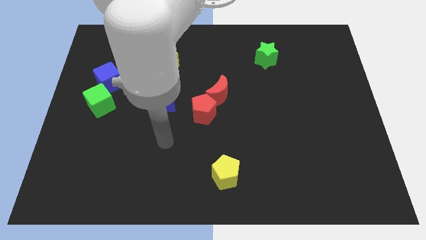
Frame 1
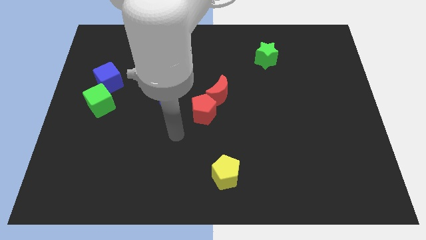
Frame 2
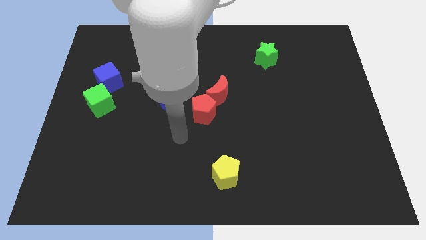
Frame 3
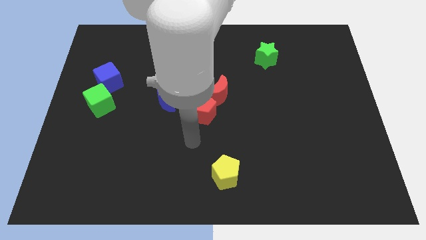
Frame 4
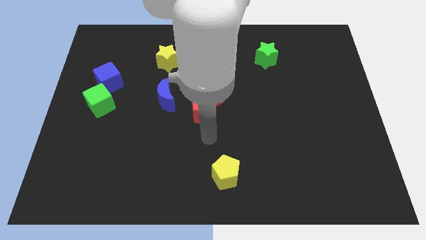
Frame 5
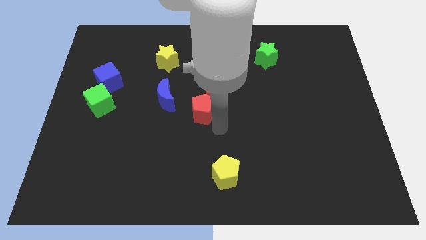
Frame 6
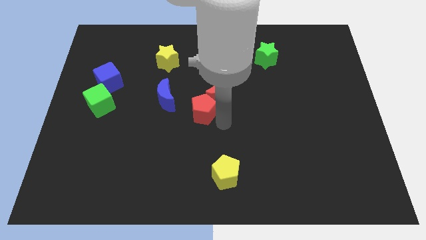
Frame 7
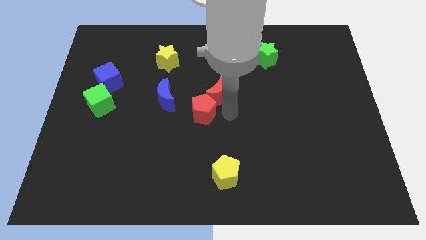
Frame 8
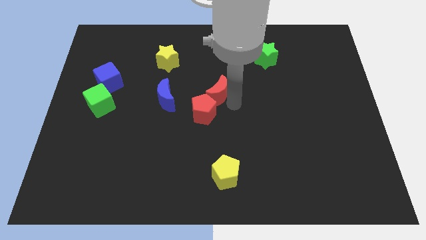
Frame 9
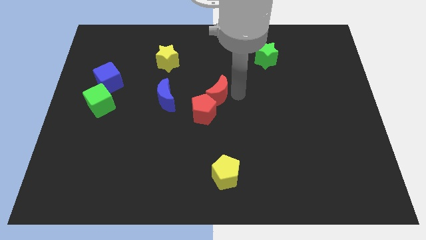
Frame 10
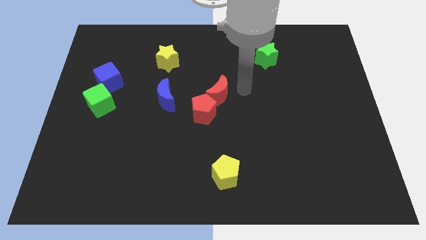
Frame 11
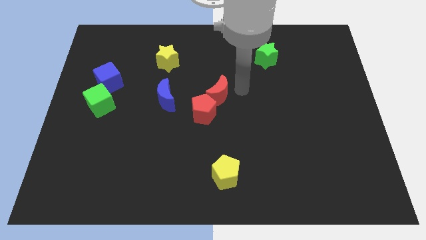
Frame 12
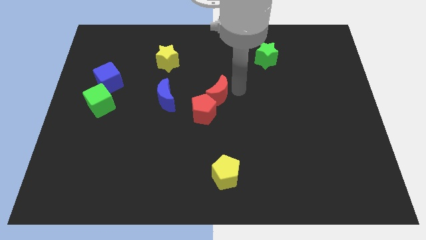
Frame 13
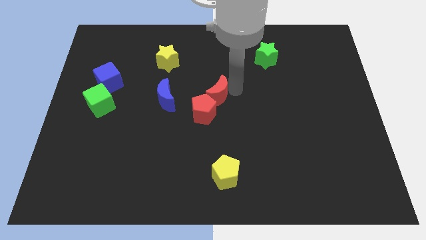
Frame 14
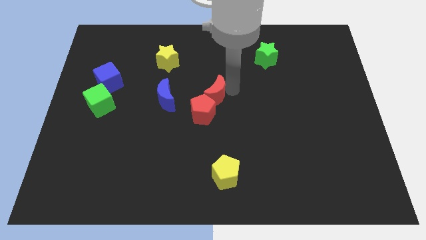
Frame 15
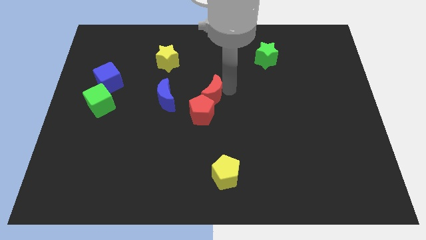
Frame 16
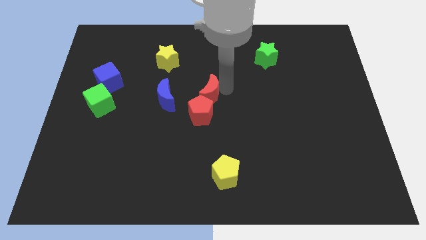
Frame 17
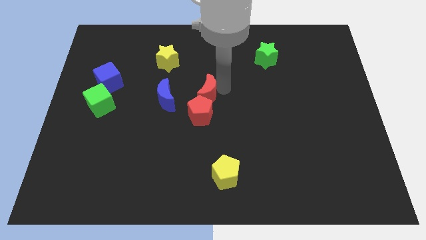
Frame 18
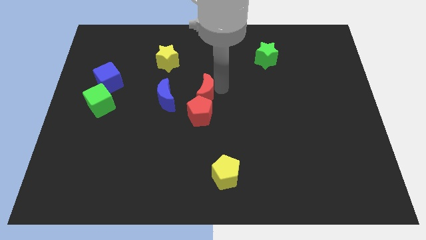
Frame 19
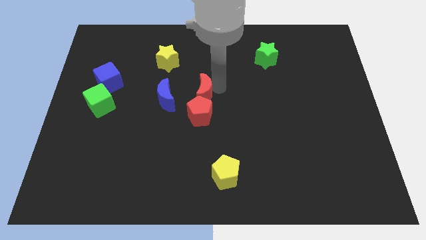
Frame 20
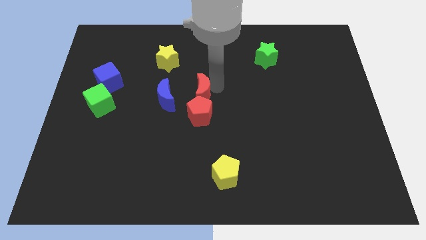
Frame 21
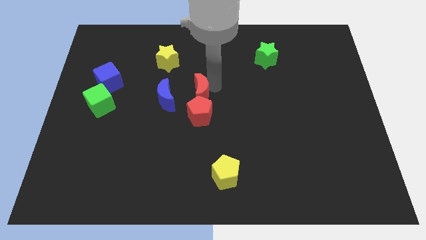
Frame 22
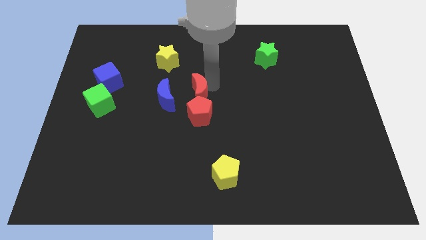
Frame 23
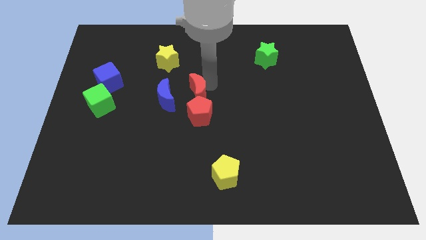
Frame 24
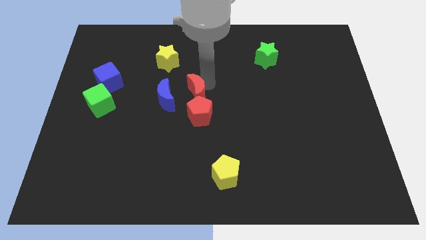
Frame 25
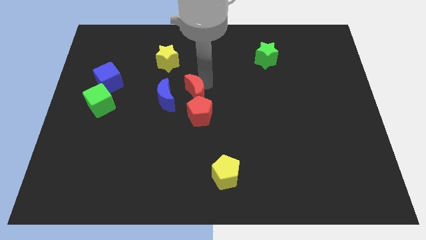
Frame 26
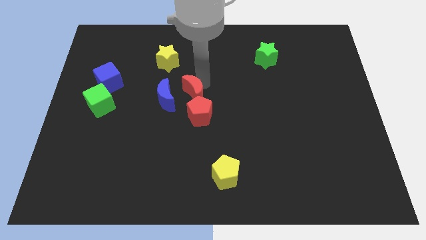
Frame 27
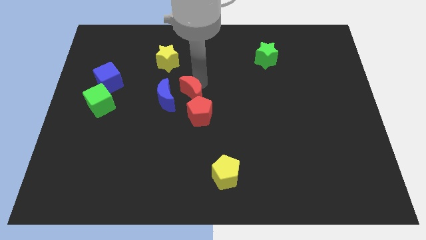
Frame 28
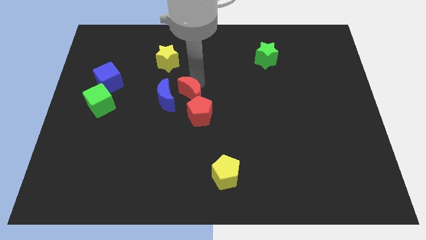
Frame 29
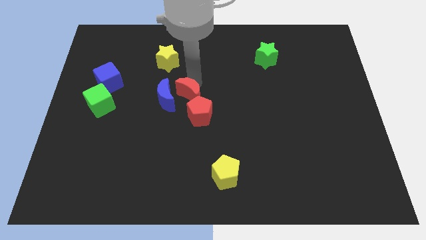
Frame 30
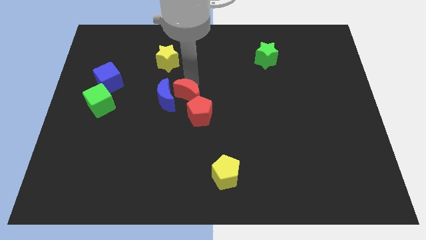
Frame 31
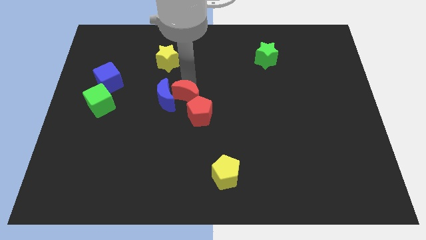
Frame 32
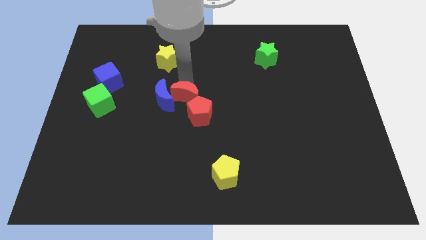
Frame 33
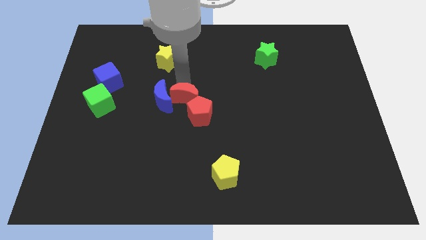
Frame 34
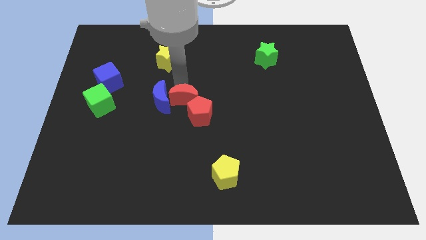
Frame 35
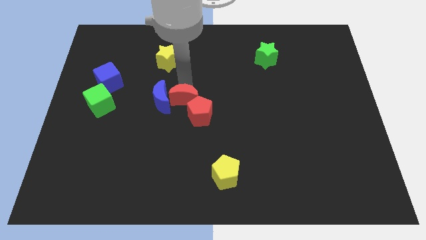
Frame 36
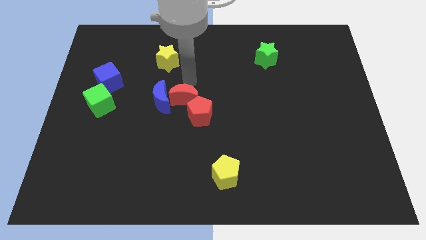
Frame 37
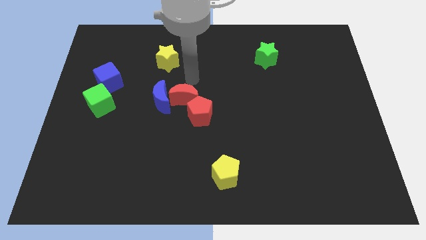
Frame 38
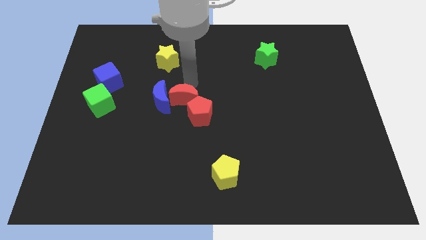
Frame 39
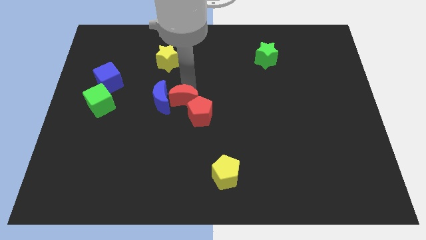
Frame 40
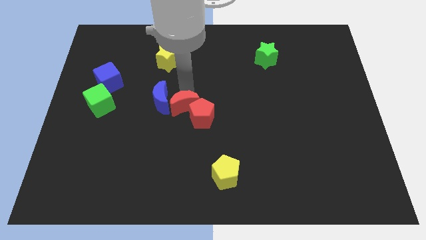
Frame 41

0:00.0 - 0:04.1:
move the red moon downwards and to the left diagonally a little bit

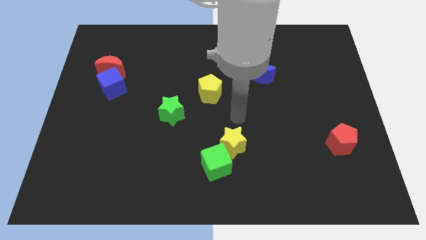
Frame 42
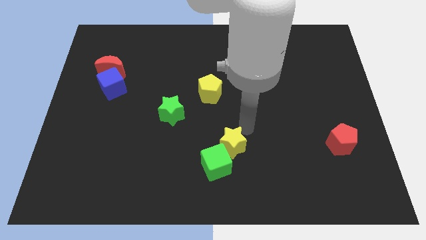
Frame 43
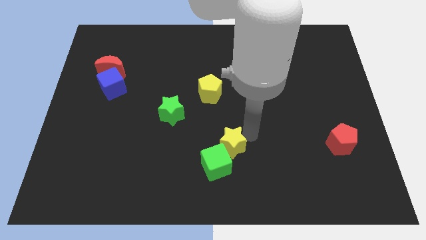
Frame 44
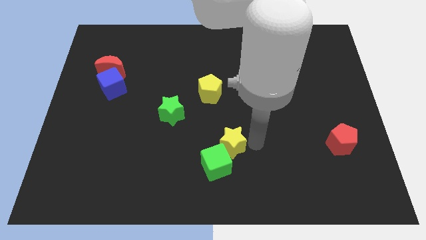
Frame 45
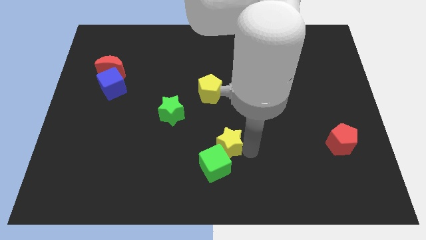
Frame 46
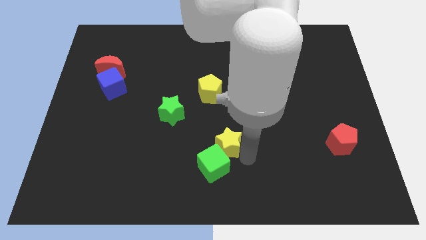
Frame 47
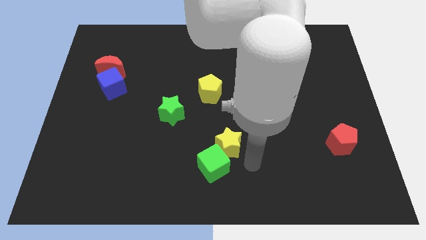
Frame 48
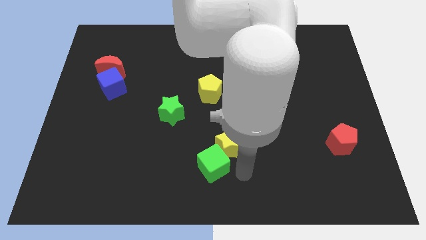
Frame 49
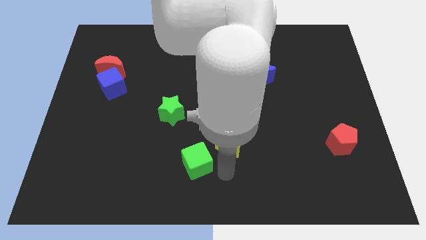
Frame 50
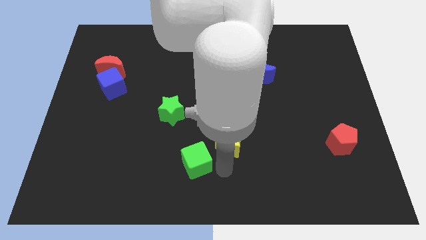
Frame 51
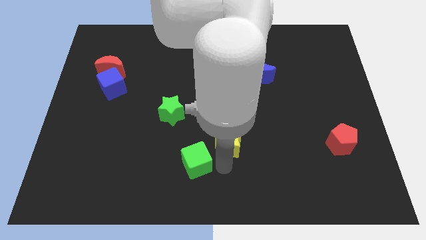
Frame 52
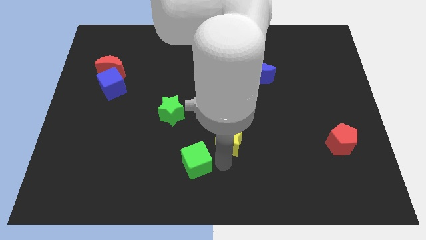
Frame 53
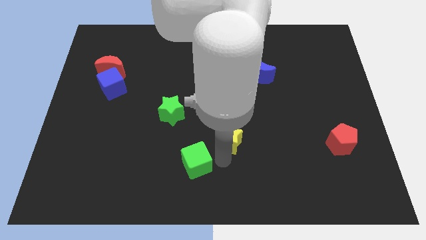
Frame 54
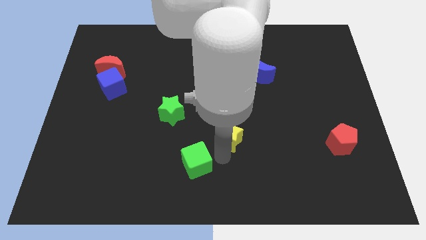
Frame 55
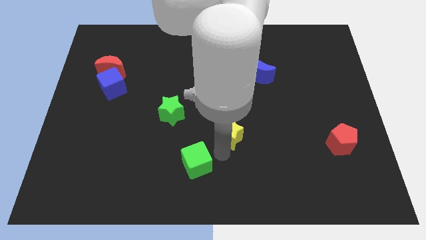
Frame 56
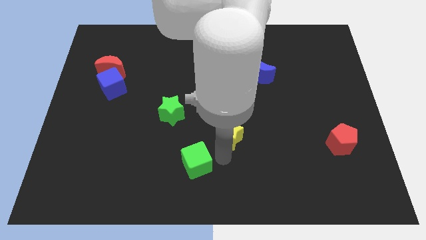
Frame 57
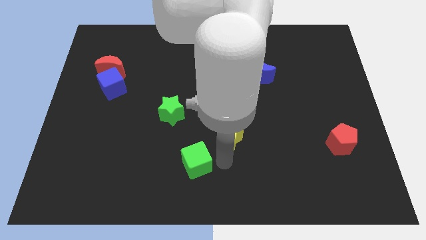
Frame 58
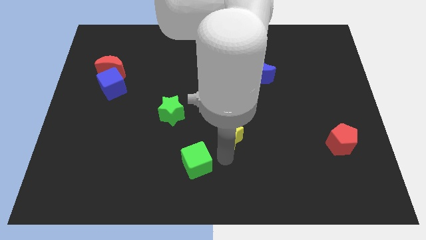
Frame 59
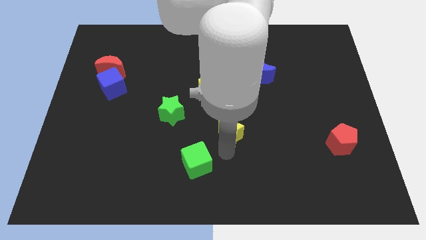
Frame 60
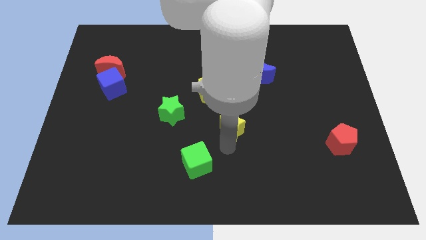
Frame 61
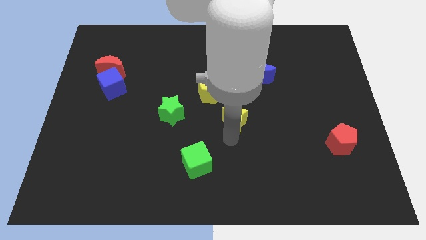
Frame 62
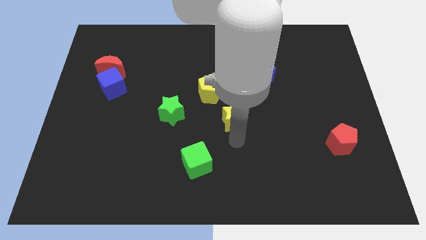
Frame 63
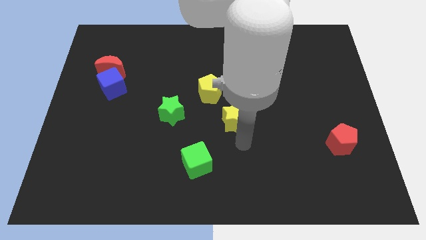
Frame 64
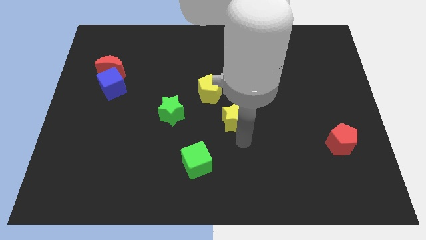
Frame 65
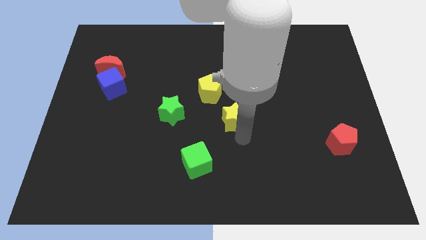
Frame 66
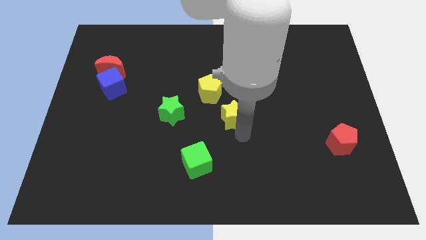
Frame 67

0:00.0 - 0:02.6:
slide the yellow star a little up

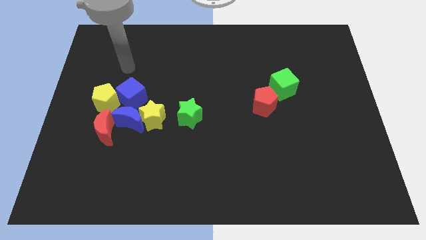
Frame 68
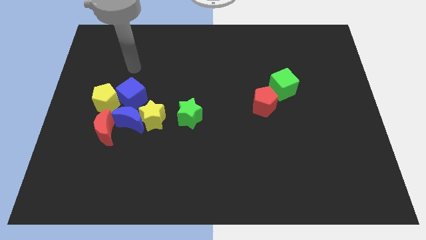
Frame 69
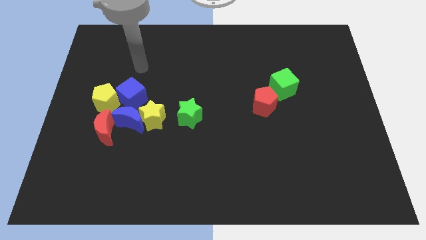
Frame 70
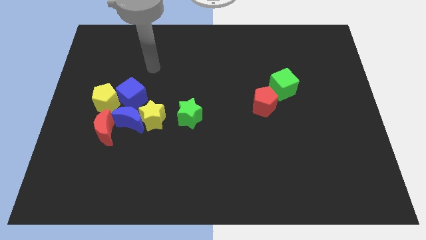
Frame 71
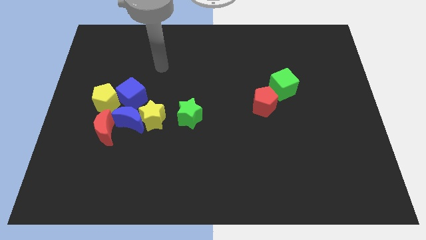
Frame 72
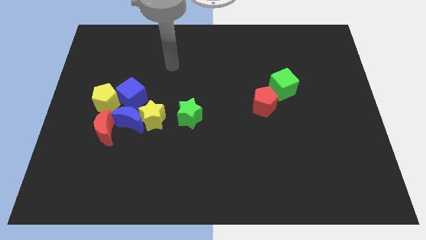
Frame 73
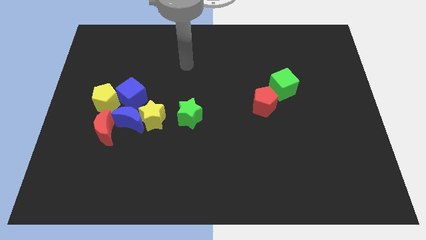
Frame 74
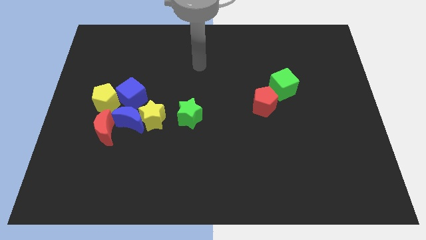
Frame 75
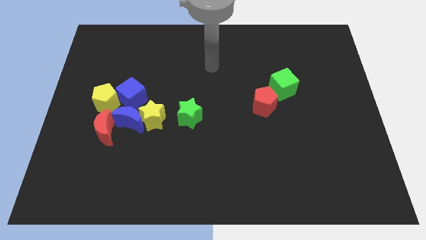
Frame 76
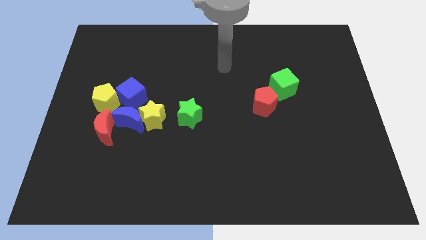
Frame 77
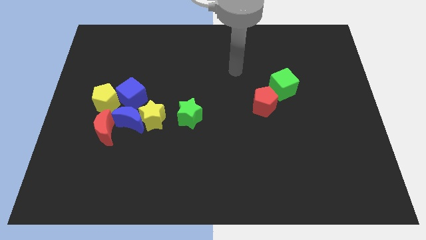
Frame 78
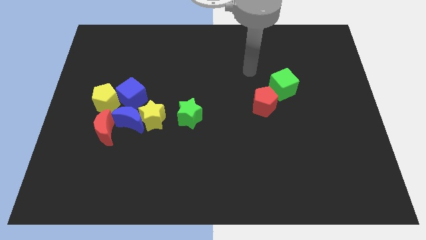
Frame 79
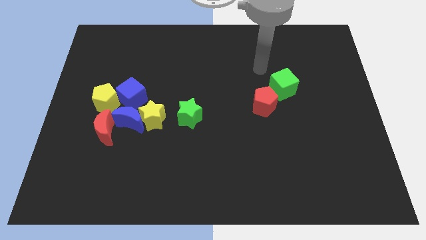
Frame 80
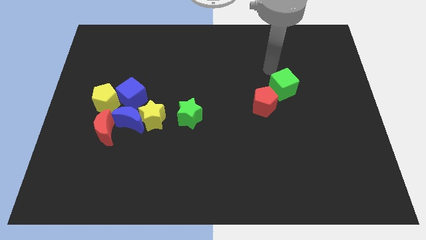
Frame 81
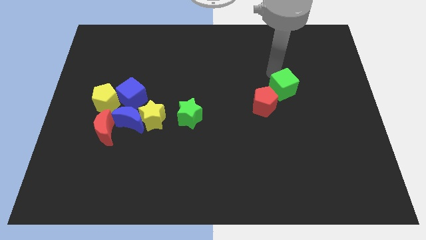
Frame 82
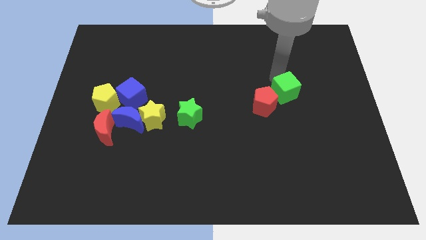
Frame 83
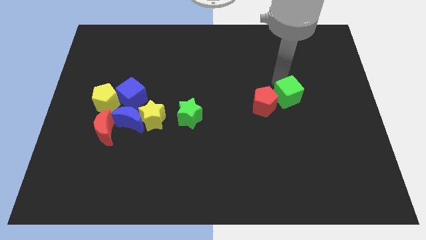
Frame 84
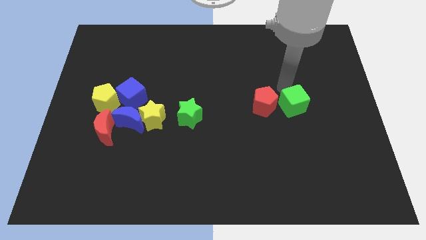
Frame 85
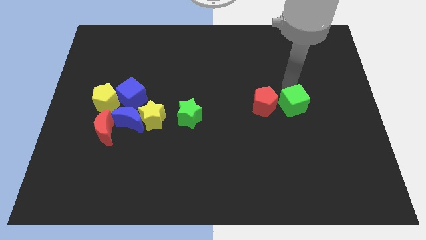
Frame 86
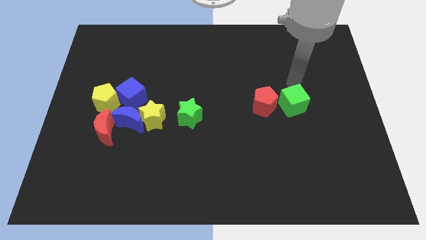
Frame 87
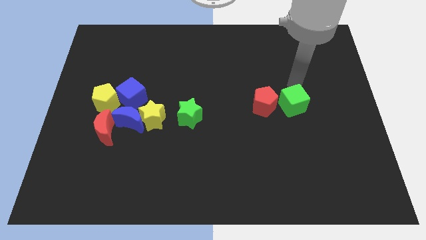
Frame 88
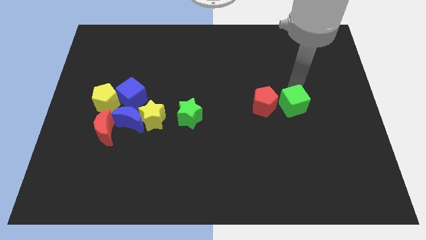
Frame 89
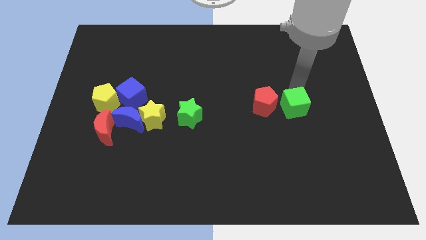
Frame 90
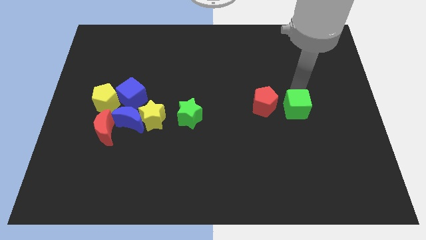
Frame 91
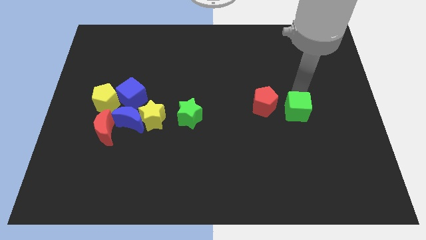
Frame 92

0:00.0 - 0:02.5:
slide the green cube a little down
